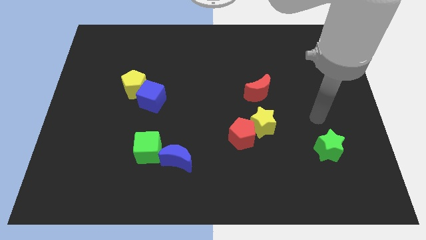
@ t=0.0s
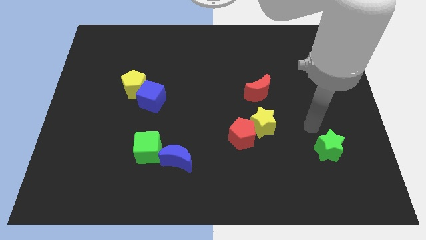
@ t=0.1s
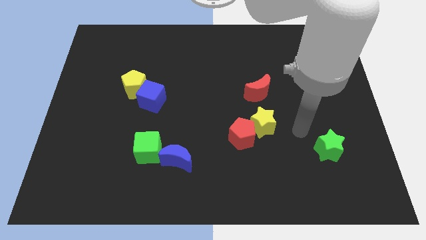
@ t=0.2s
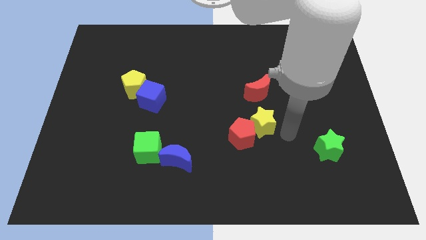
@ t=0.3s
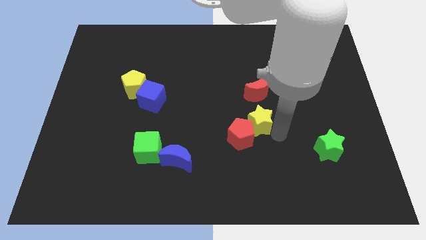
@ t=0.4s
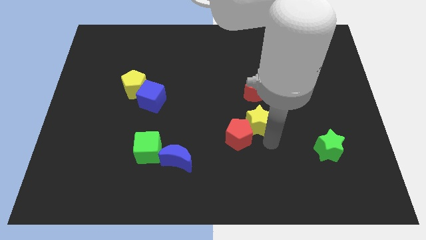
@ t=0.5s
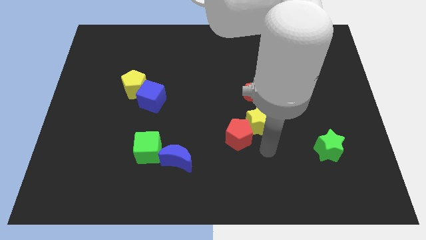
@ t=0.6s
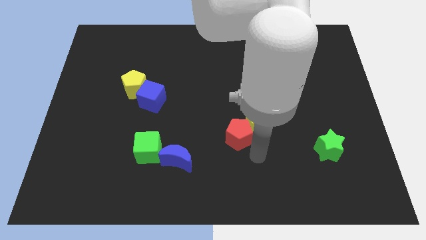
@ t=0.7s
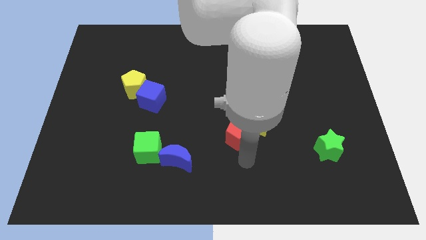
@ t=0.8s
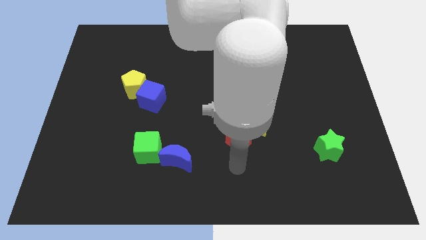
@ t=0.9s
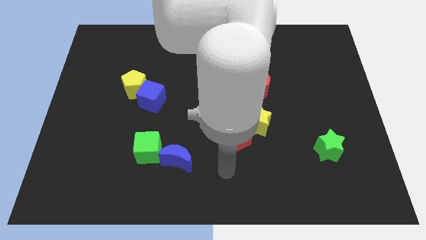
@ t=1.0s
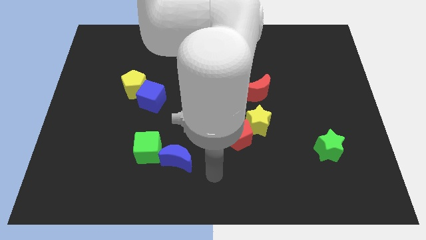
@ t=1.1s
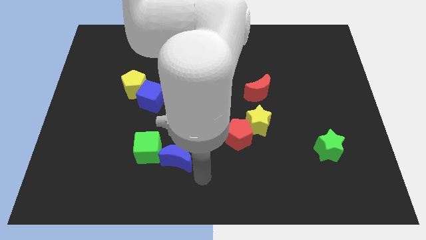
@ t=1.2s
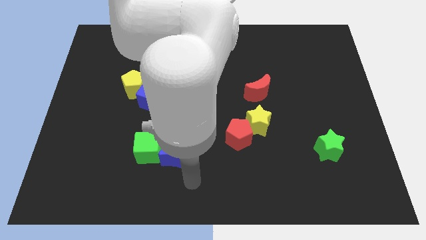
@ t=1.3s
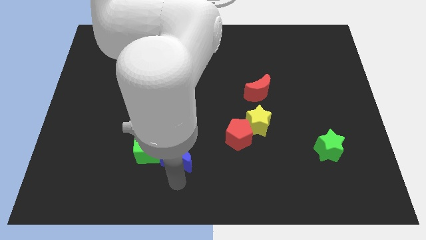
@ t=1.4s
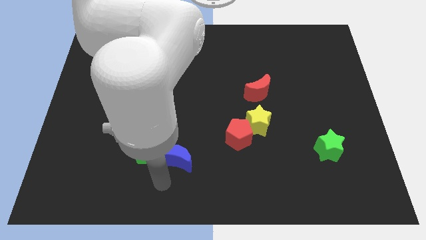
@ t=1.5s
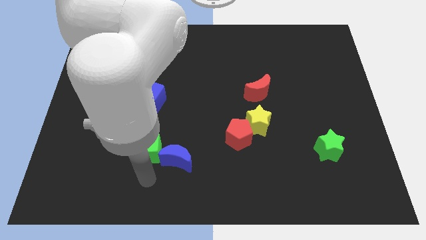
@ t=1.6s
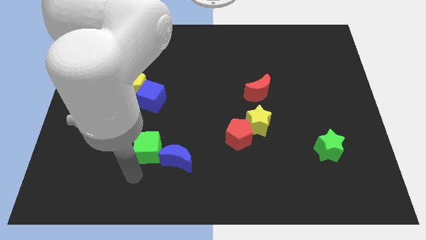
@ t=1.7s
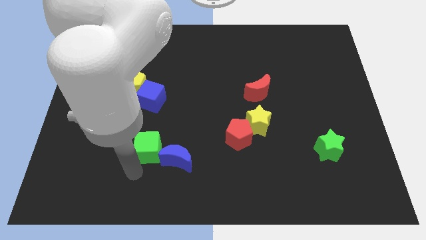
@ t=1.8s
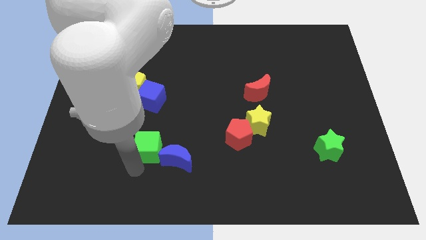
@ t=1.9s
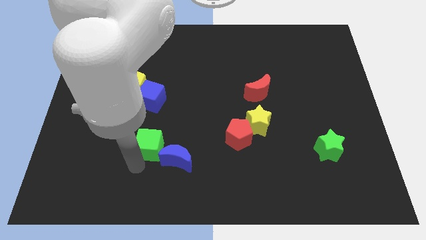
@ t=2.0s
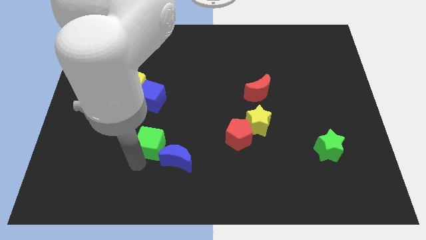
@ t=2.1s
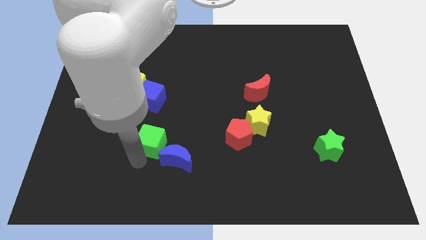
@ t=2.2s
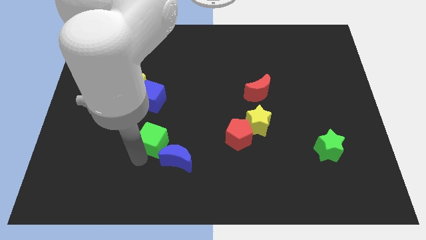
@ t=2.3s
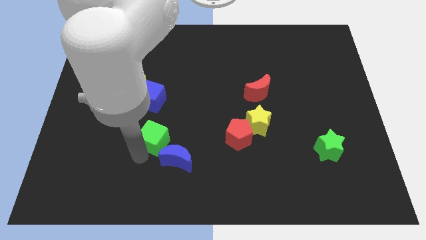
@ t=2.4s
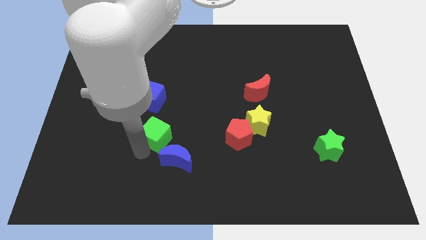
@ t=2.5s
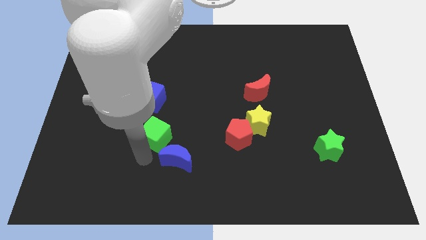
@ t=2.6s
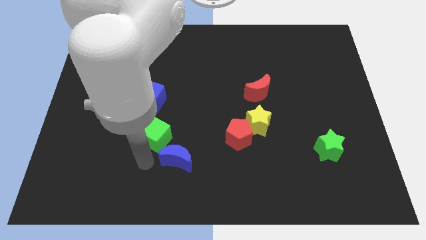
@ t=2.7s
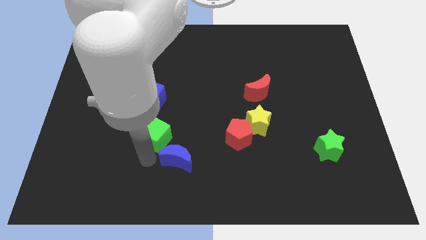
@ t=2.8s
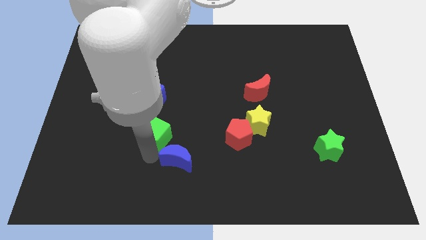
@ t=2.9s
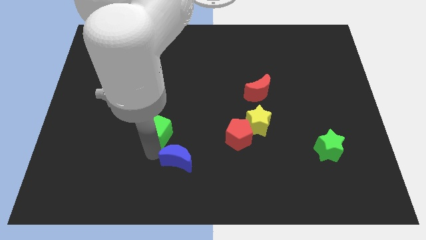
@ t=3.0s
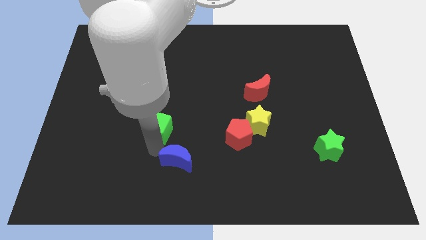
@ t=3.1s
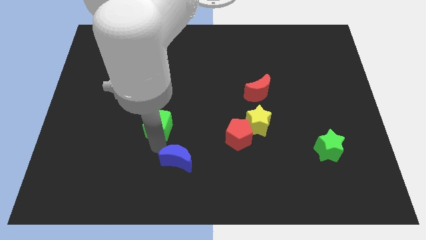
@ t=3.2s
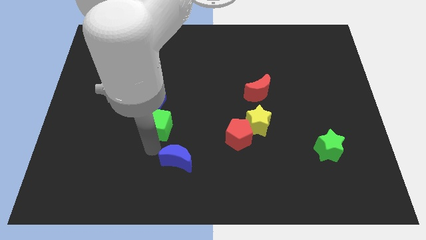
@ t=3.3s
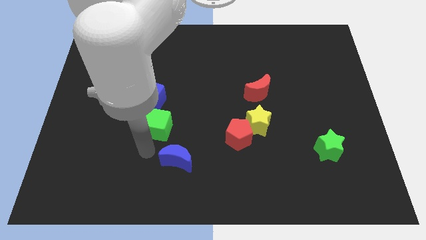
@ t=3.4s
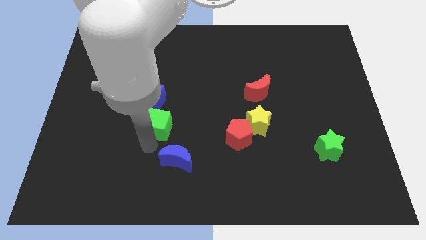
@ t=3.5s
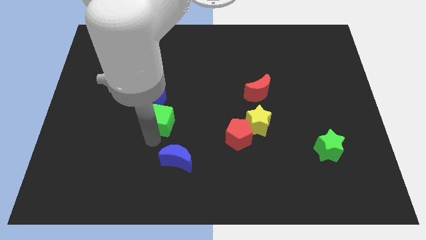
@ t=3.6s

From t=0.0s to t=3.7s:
slightly slide the green cube upwards

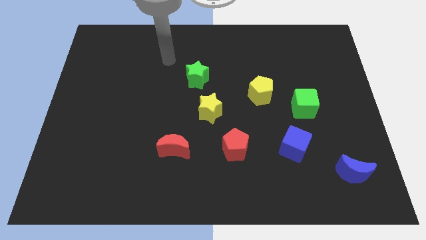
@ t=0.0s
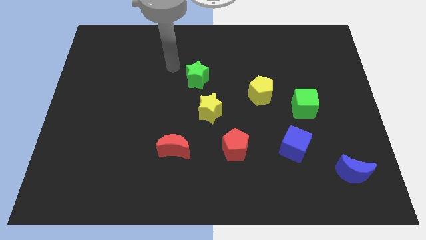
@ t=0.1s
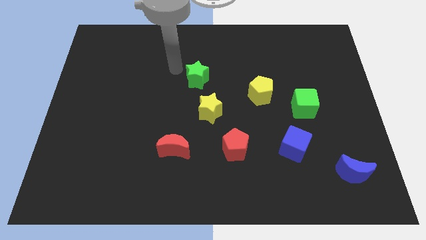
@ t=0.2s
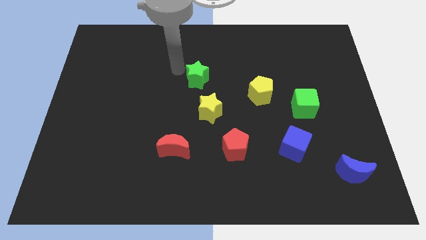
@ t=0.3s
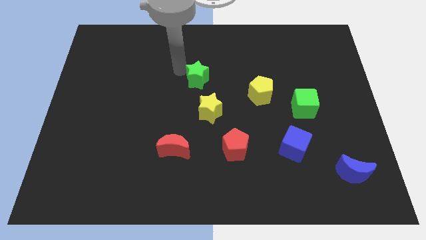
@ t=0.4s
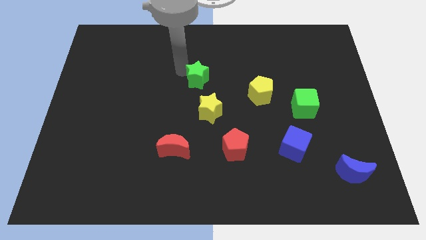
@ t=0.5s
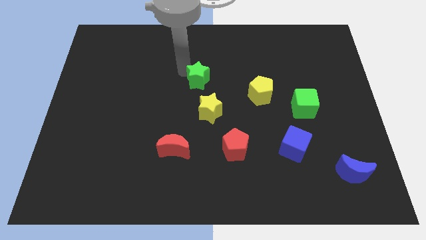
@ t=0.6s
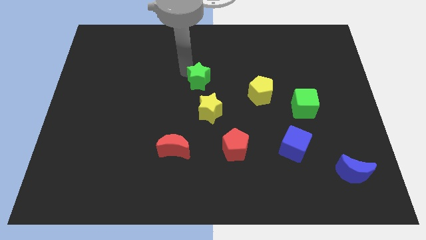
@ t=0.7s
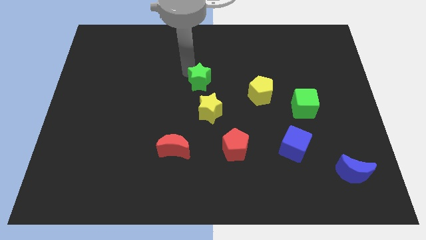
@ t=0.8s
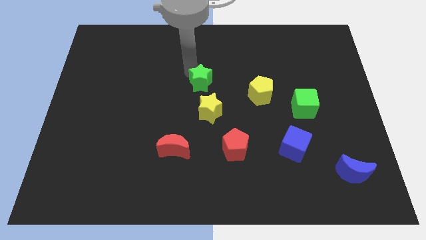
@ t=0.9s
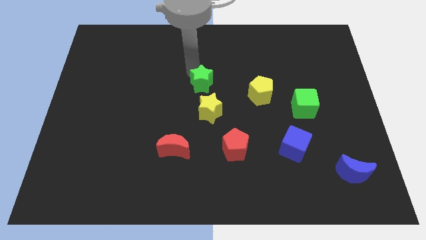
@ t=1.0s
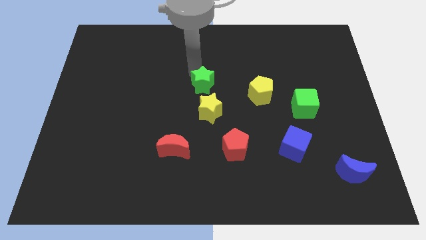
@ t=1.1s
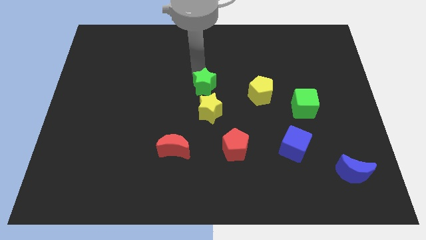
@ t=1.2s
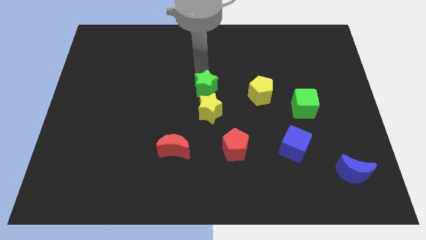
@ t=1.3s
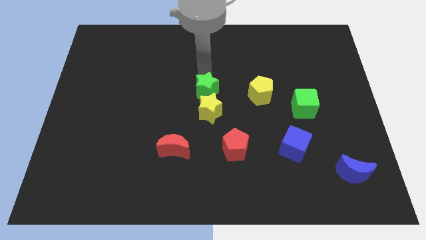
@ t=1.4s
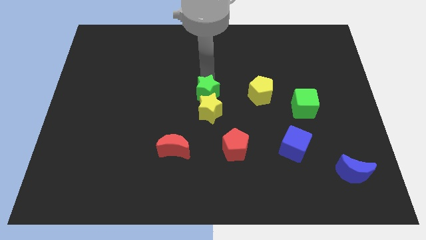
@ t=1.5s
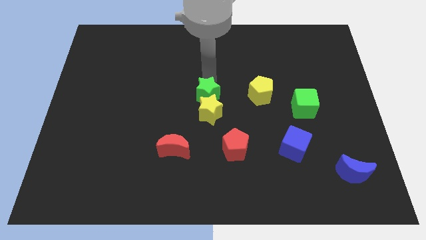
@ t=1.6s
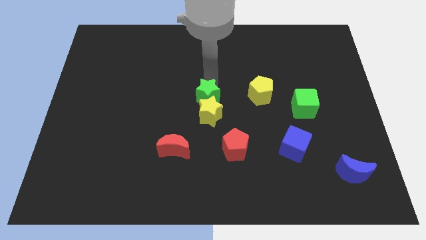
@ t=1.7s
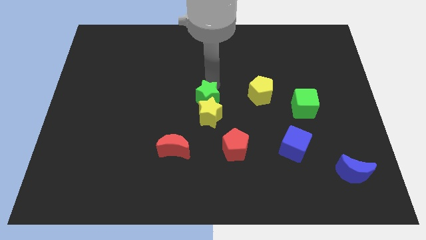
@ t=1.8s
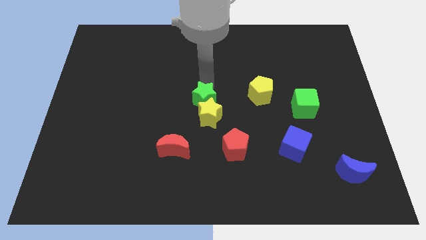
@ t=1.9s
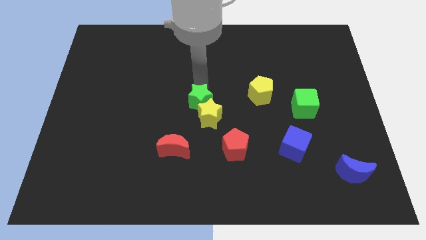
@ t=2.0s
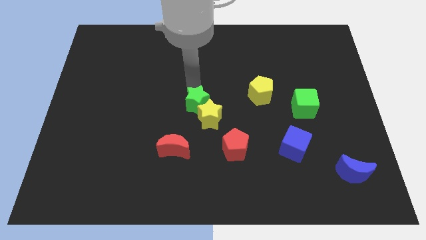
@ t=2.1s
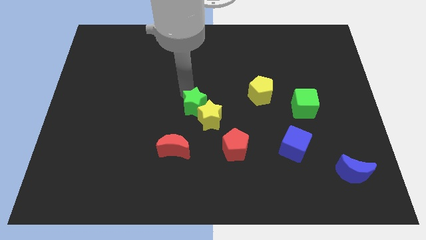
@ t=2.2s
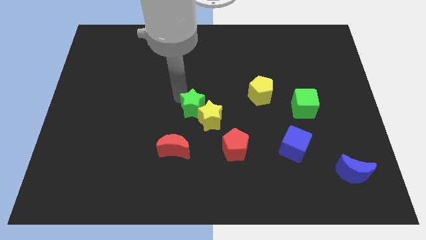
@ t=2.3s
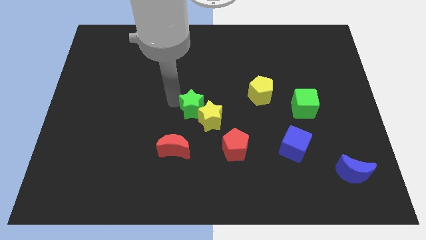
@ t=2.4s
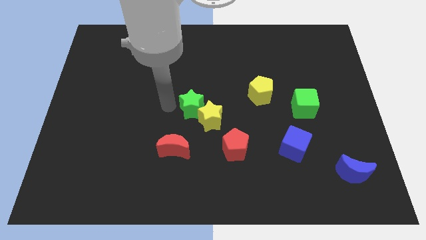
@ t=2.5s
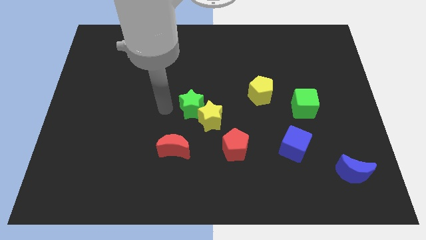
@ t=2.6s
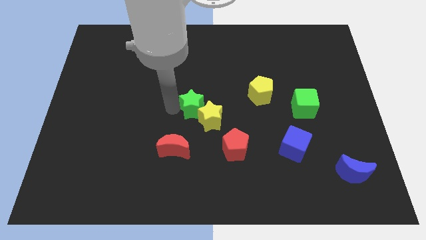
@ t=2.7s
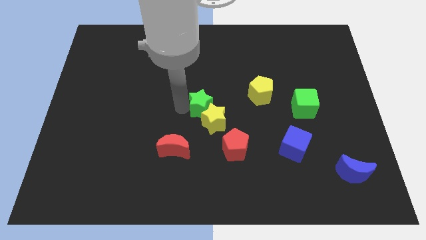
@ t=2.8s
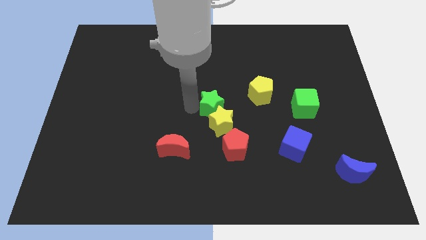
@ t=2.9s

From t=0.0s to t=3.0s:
slightly push the green star downwards and right

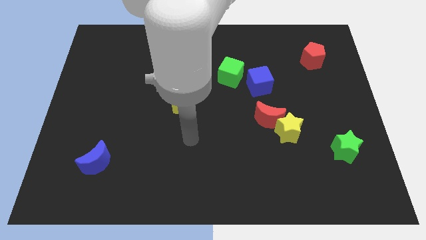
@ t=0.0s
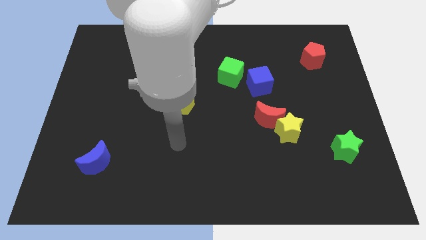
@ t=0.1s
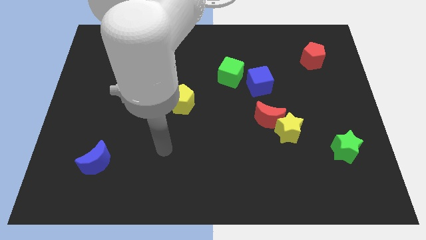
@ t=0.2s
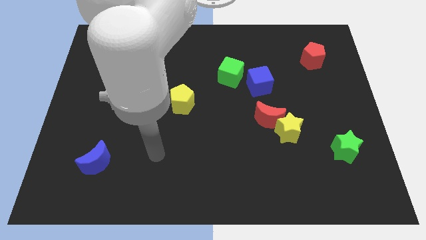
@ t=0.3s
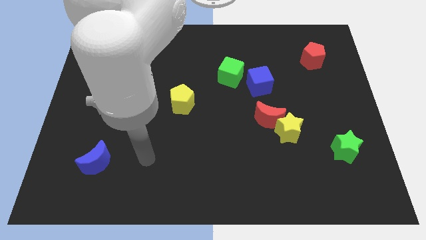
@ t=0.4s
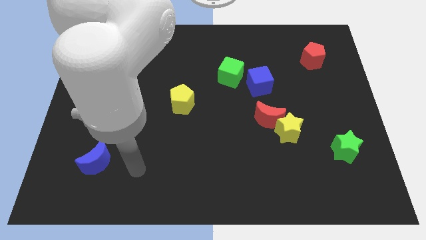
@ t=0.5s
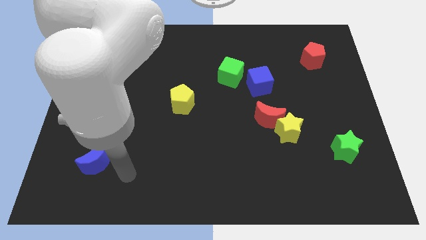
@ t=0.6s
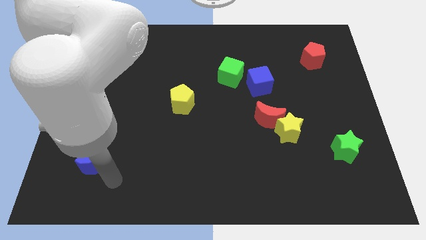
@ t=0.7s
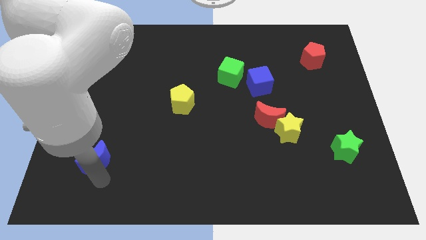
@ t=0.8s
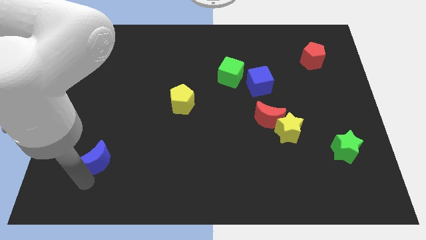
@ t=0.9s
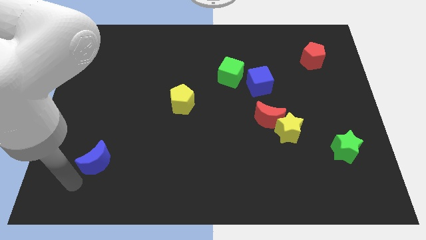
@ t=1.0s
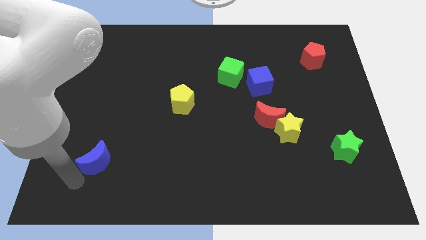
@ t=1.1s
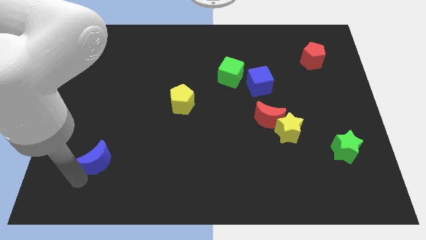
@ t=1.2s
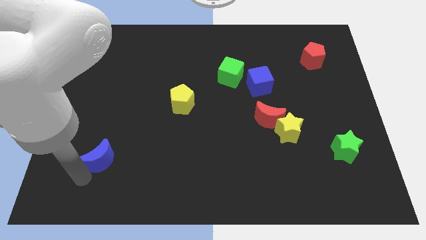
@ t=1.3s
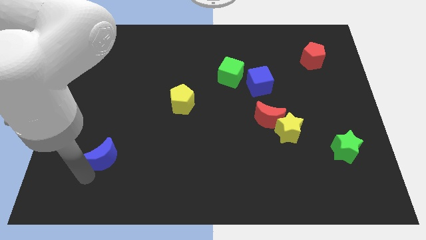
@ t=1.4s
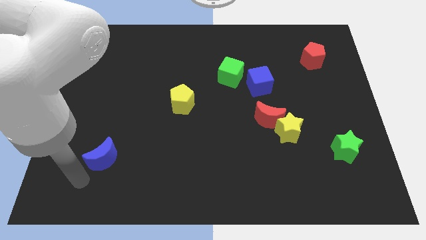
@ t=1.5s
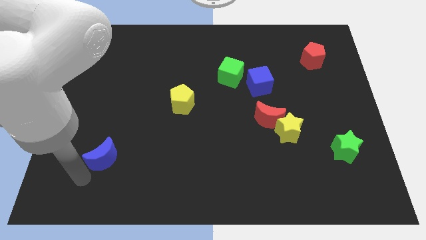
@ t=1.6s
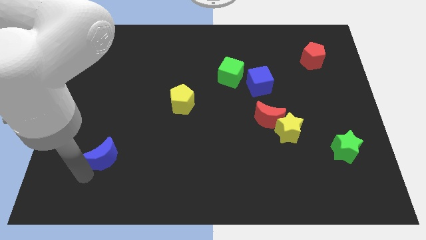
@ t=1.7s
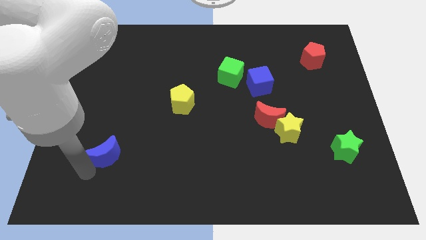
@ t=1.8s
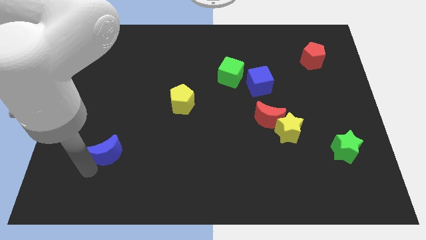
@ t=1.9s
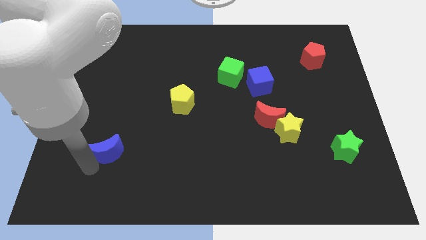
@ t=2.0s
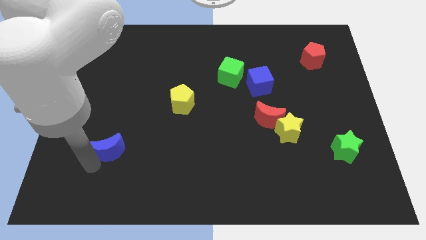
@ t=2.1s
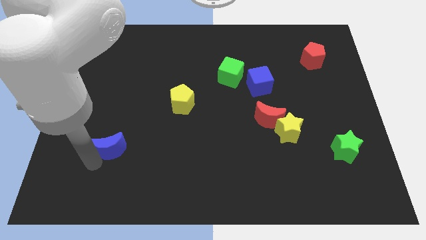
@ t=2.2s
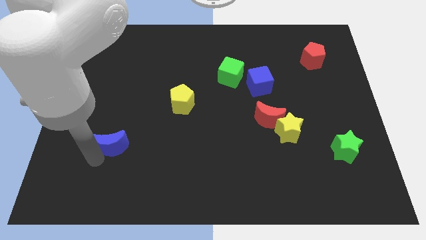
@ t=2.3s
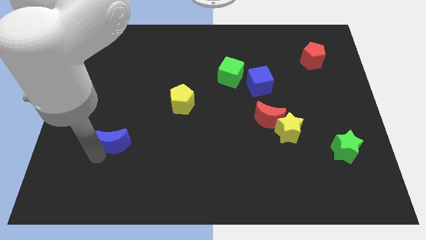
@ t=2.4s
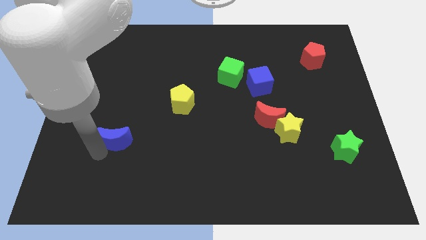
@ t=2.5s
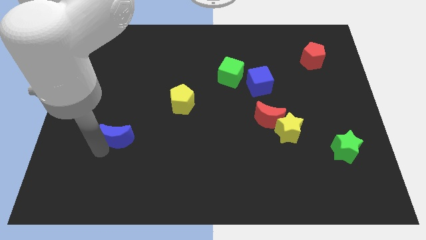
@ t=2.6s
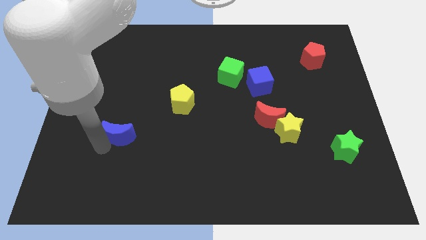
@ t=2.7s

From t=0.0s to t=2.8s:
slide the blue moon a bit upwards and to the right
